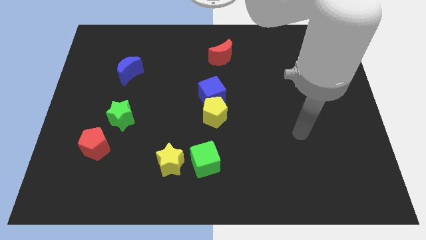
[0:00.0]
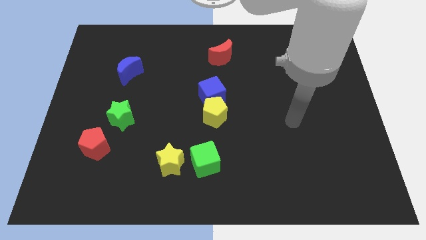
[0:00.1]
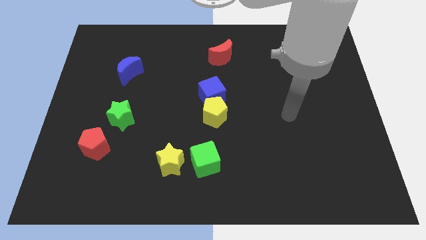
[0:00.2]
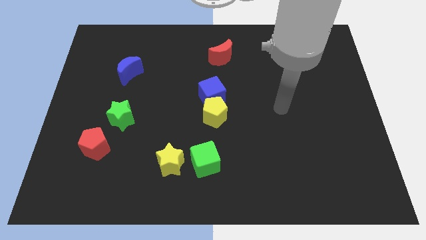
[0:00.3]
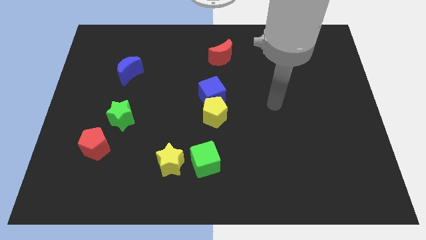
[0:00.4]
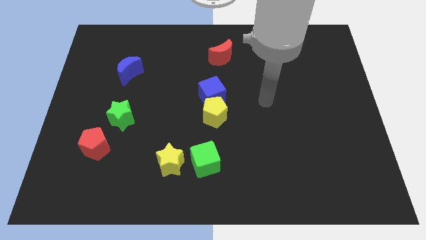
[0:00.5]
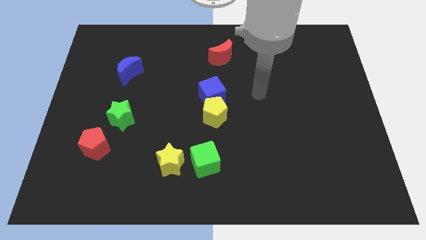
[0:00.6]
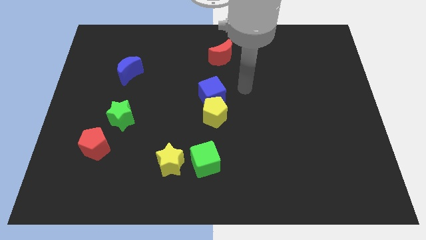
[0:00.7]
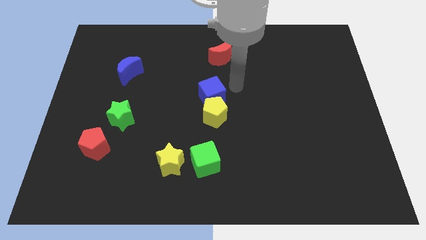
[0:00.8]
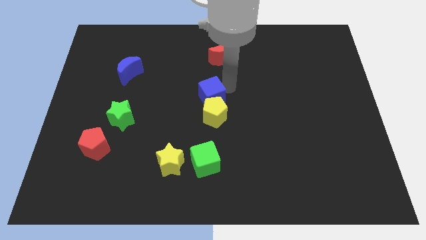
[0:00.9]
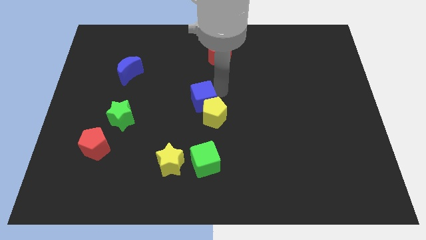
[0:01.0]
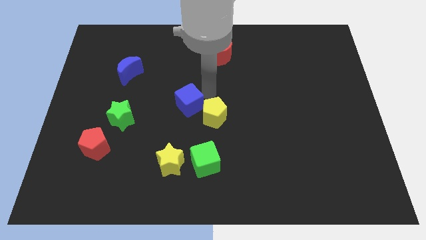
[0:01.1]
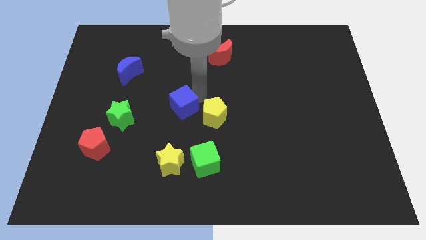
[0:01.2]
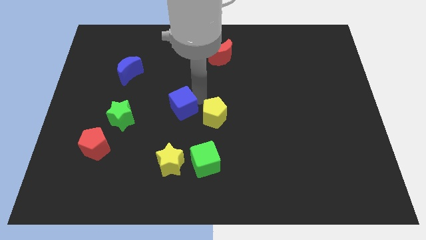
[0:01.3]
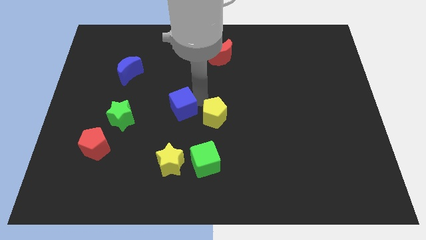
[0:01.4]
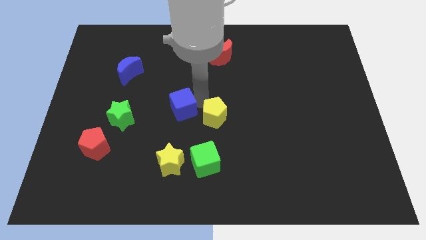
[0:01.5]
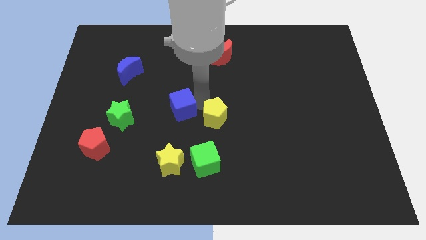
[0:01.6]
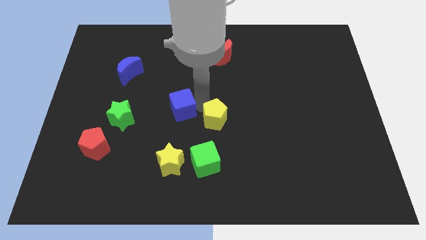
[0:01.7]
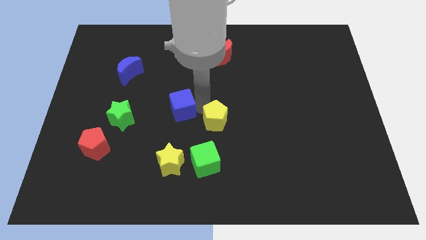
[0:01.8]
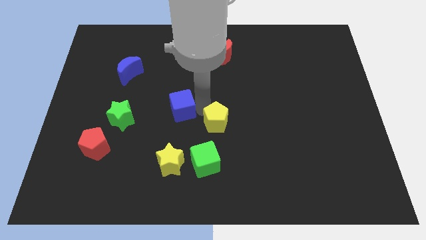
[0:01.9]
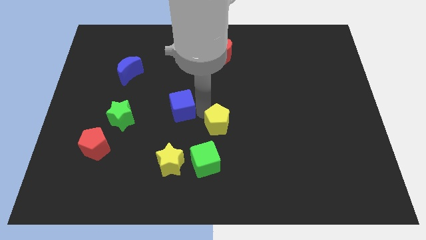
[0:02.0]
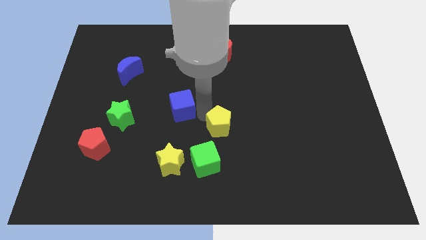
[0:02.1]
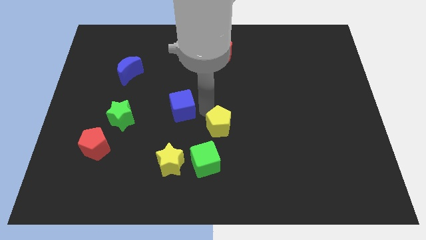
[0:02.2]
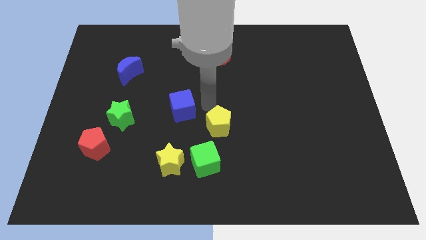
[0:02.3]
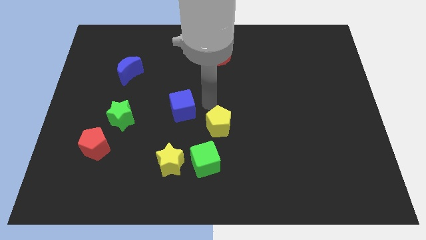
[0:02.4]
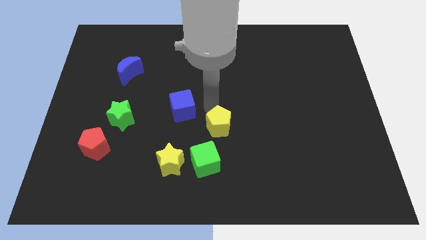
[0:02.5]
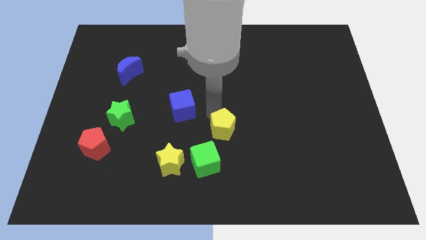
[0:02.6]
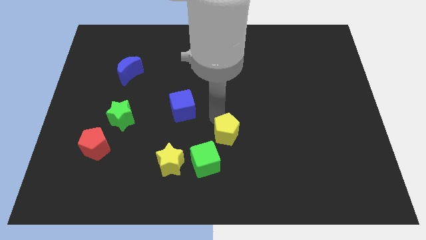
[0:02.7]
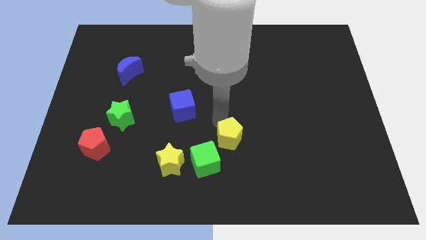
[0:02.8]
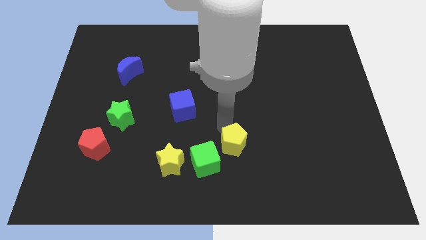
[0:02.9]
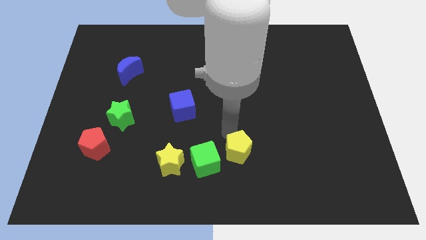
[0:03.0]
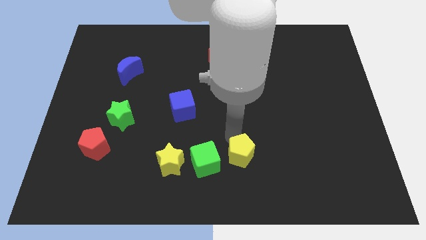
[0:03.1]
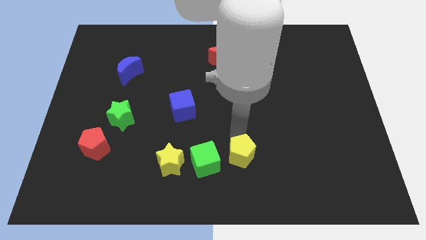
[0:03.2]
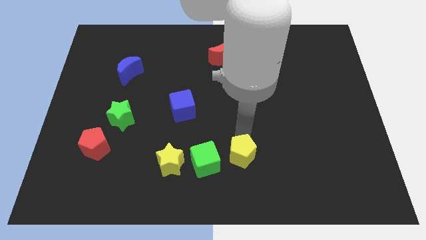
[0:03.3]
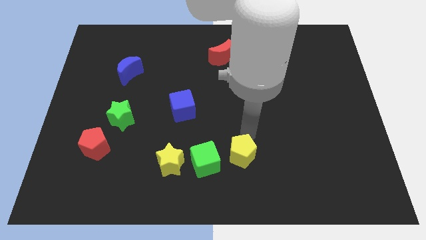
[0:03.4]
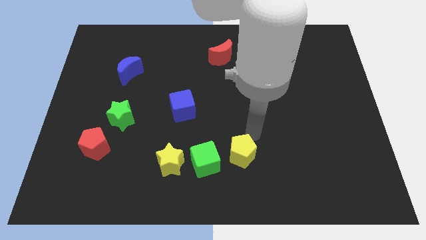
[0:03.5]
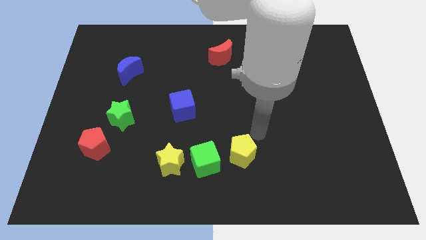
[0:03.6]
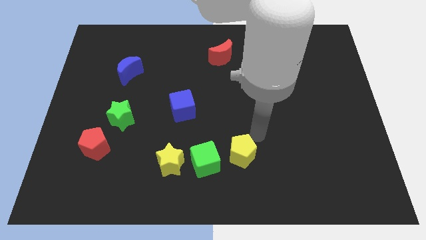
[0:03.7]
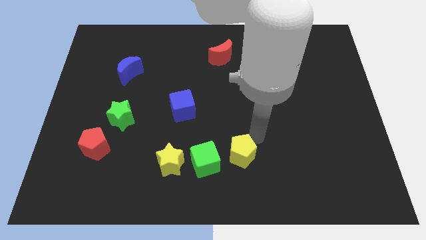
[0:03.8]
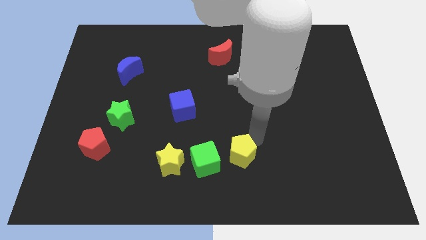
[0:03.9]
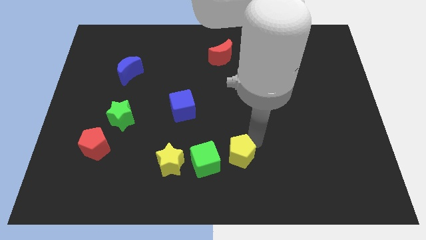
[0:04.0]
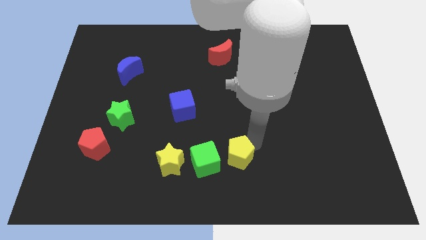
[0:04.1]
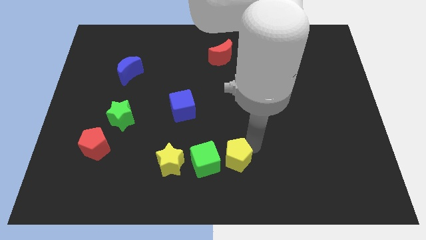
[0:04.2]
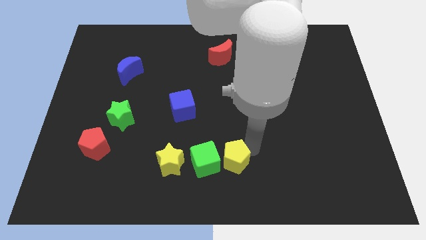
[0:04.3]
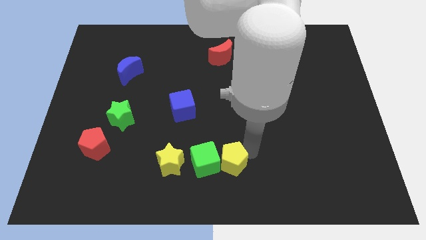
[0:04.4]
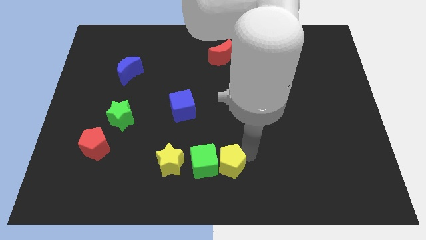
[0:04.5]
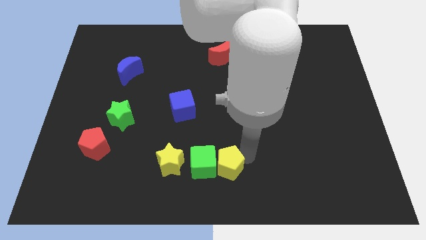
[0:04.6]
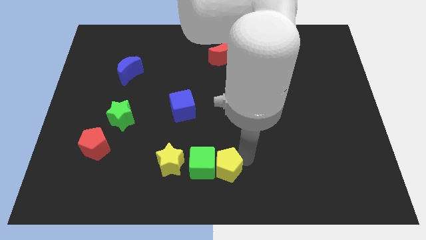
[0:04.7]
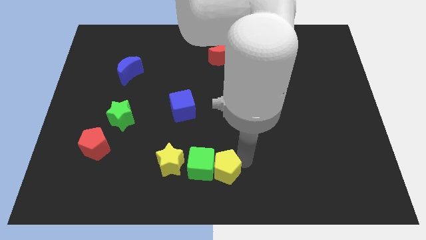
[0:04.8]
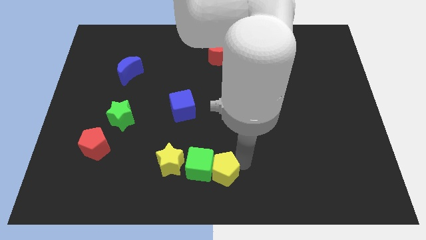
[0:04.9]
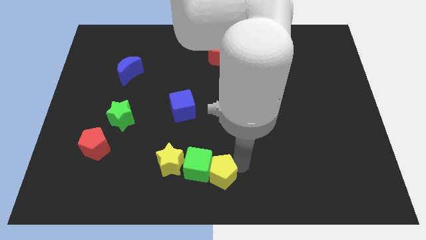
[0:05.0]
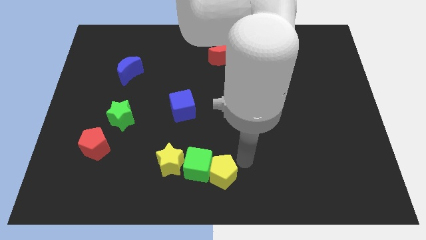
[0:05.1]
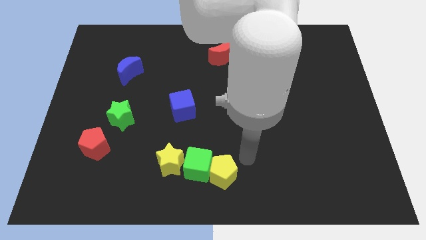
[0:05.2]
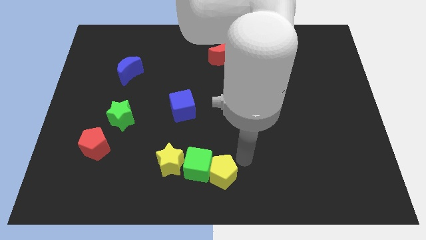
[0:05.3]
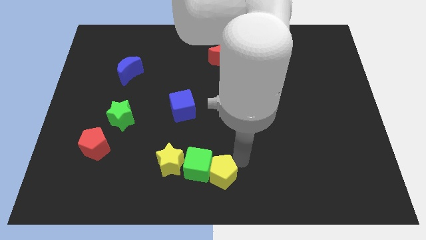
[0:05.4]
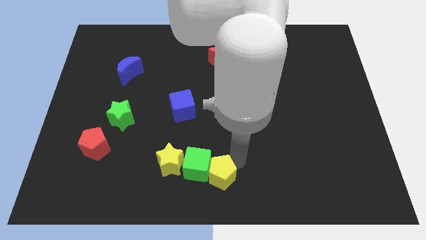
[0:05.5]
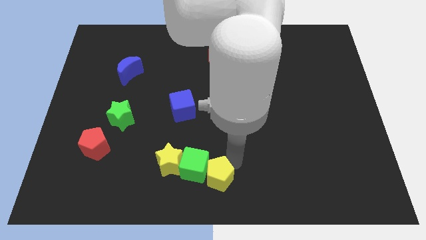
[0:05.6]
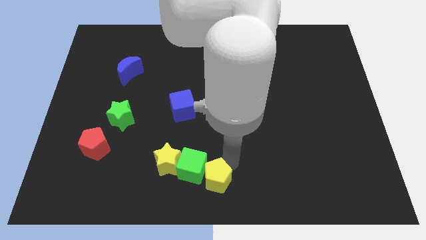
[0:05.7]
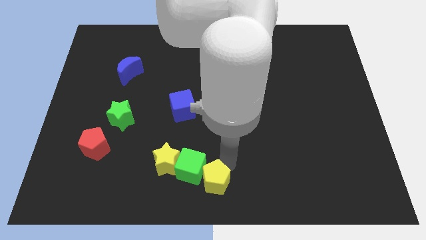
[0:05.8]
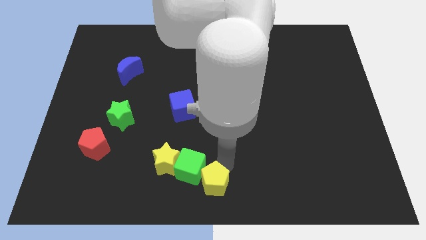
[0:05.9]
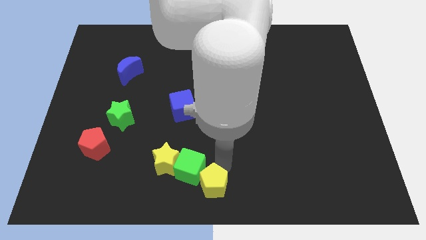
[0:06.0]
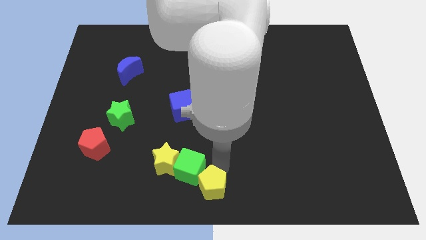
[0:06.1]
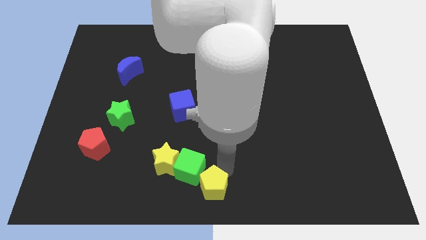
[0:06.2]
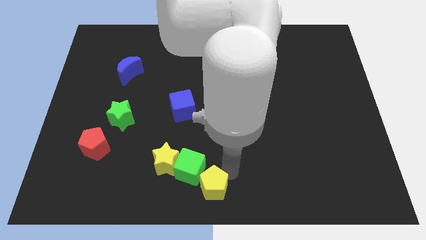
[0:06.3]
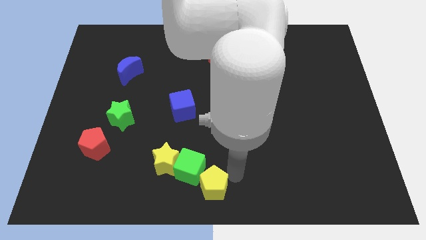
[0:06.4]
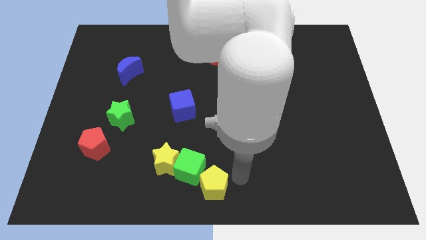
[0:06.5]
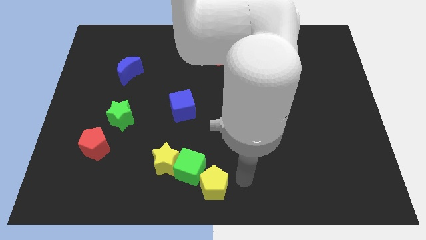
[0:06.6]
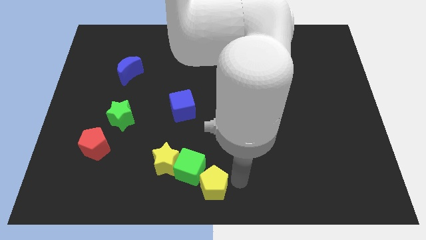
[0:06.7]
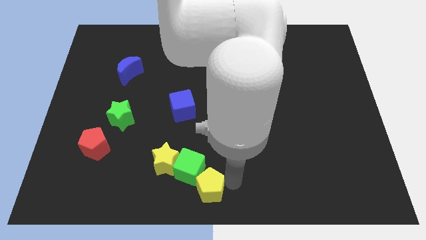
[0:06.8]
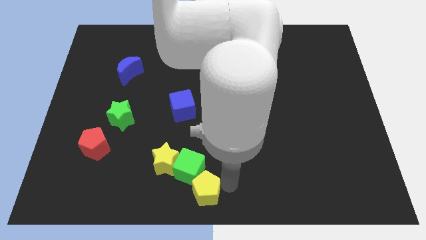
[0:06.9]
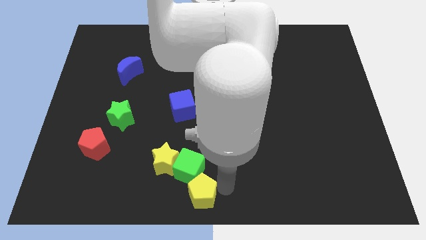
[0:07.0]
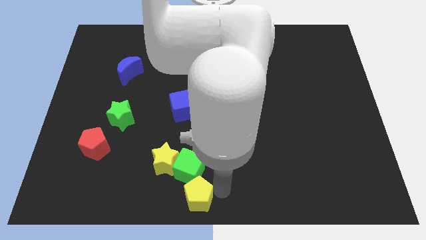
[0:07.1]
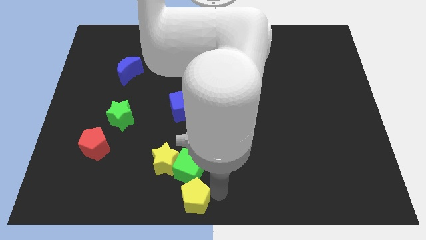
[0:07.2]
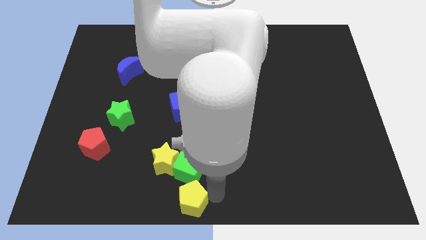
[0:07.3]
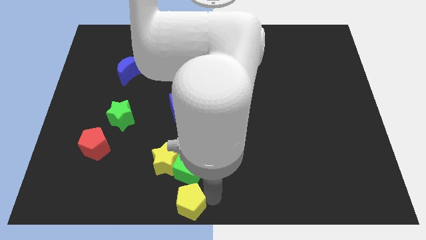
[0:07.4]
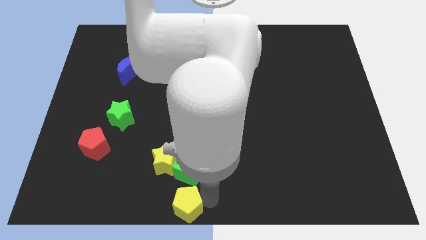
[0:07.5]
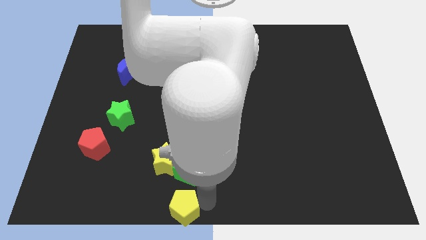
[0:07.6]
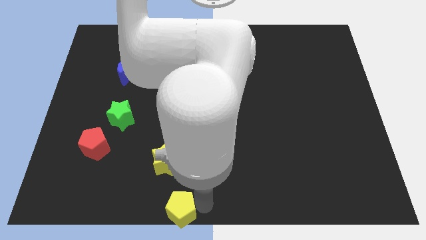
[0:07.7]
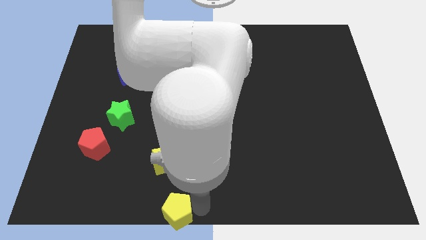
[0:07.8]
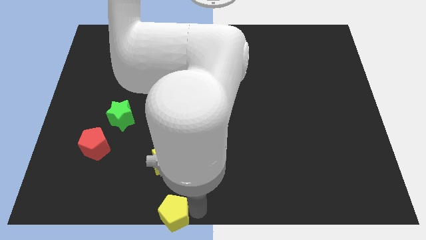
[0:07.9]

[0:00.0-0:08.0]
put the yellow pentagon to the bottom left of the green cube
